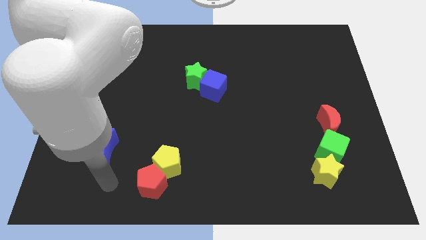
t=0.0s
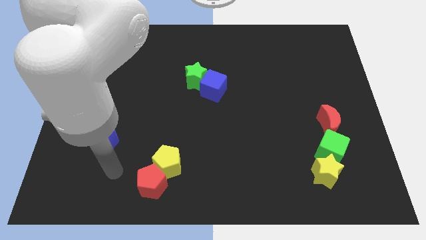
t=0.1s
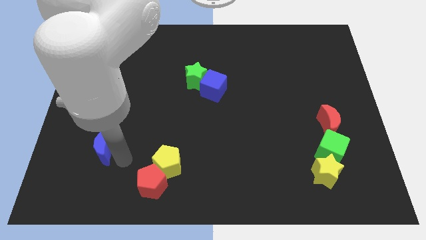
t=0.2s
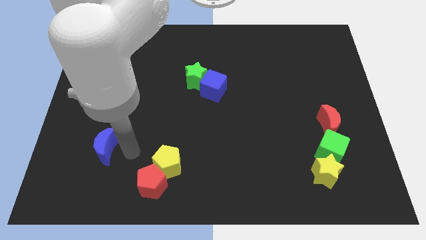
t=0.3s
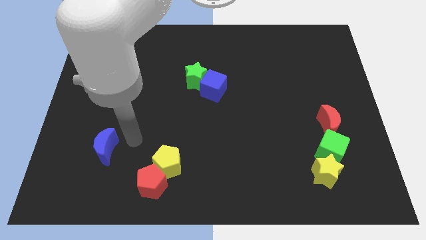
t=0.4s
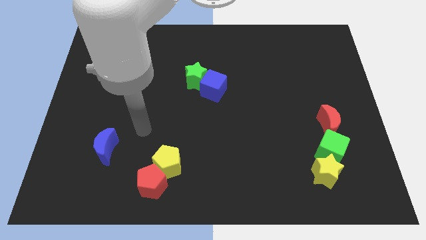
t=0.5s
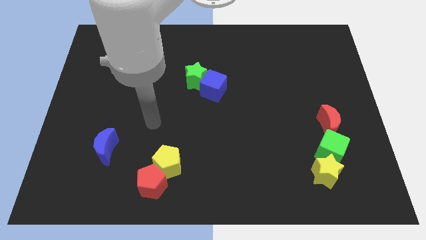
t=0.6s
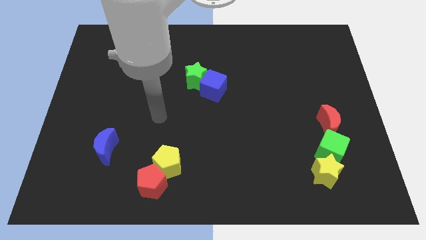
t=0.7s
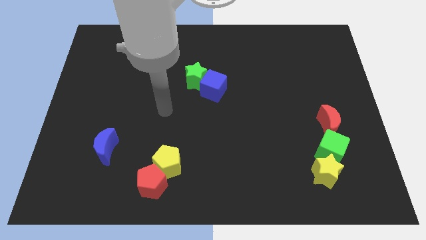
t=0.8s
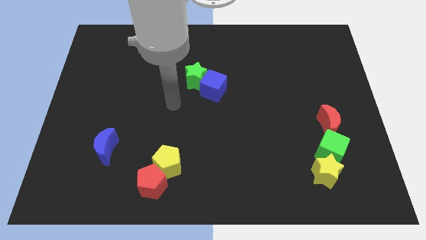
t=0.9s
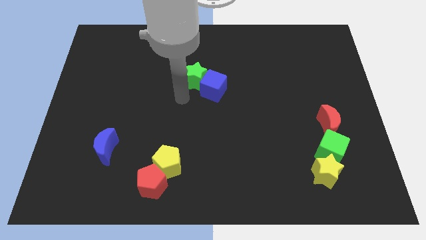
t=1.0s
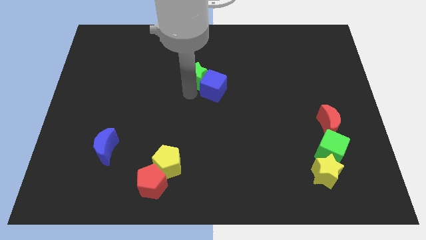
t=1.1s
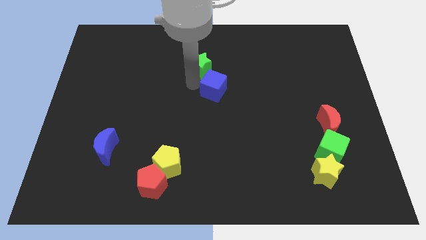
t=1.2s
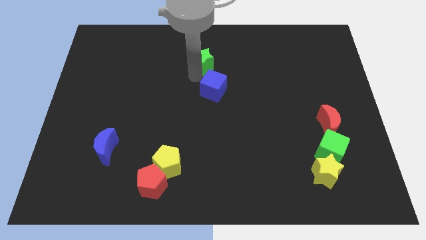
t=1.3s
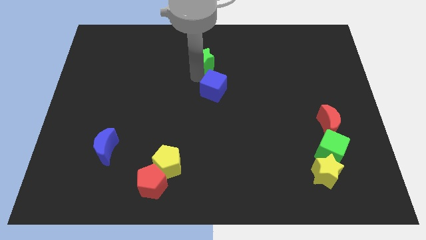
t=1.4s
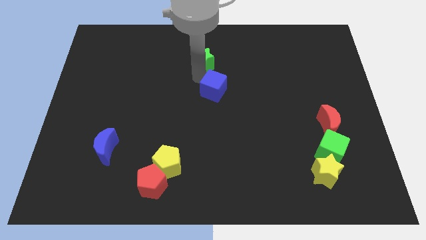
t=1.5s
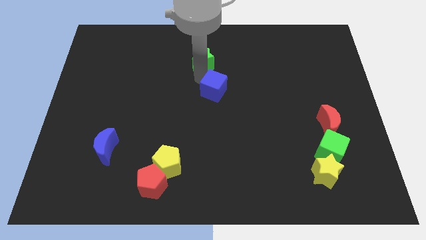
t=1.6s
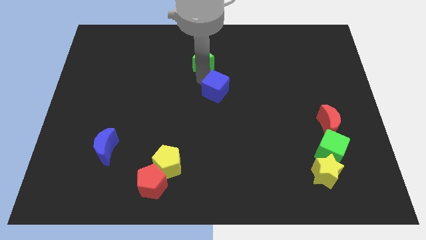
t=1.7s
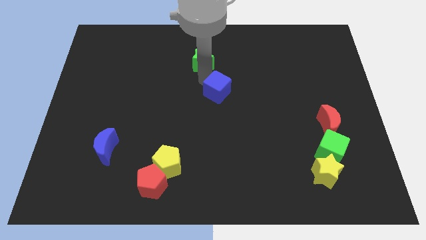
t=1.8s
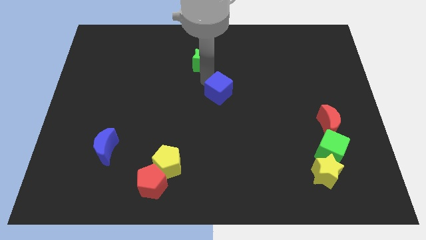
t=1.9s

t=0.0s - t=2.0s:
separate the blue cube from the green star

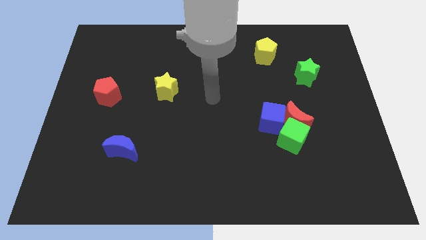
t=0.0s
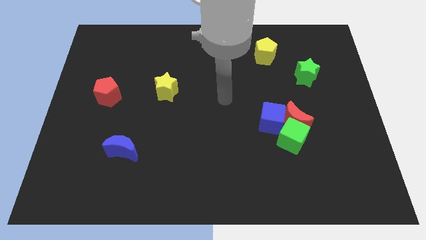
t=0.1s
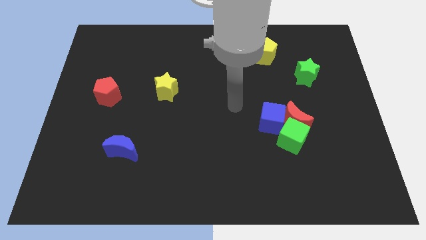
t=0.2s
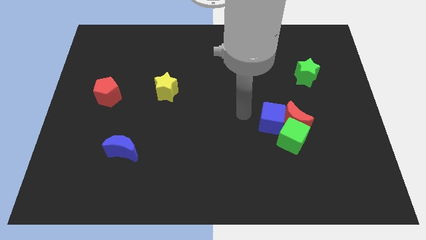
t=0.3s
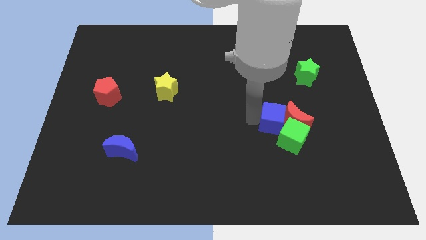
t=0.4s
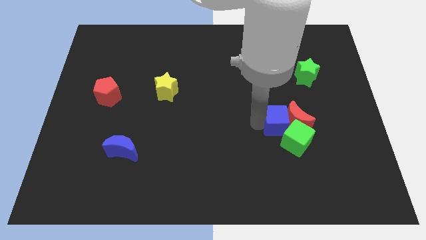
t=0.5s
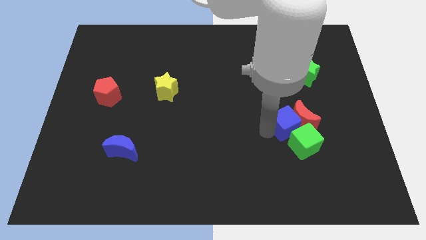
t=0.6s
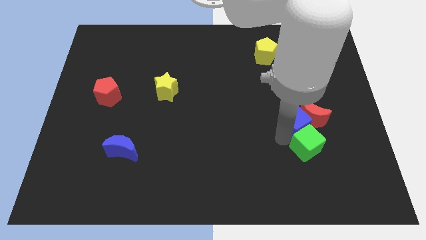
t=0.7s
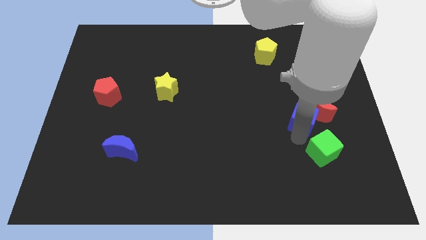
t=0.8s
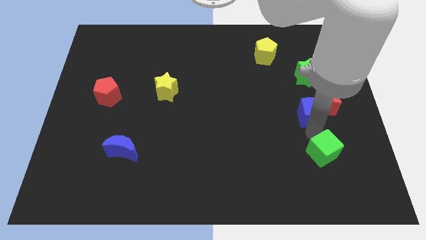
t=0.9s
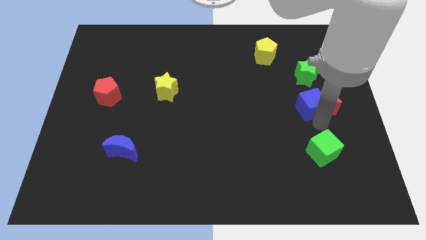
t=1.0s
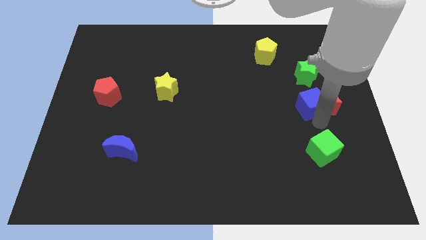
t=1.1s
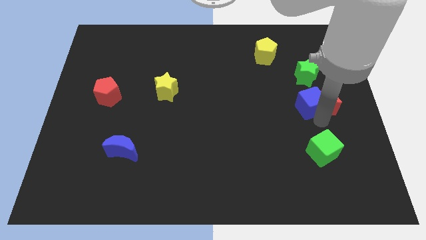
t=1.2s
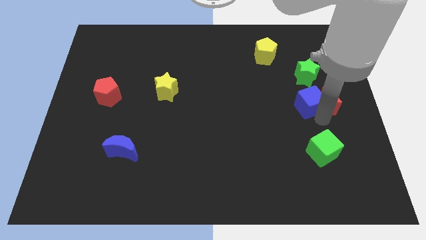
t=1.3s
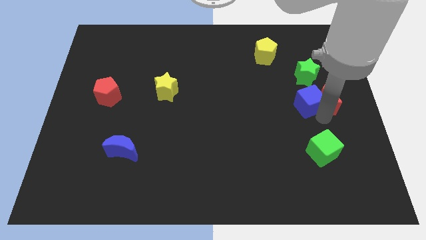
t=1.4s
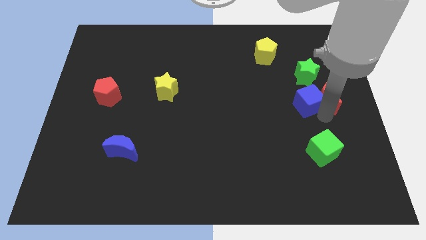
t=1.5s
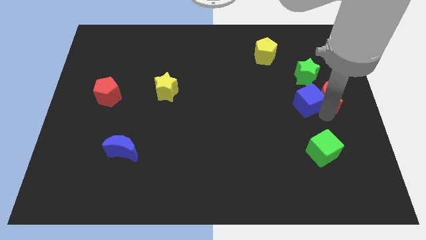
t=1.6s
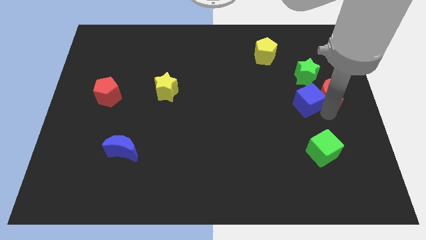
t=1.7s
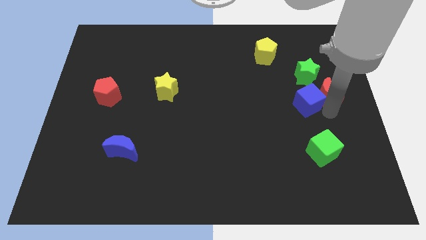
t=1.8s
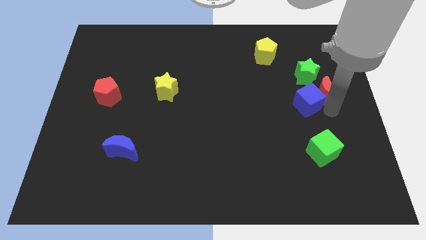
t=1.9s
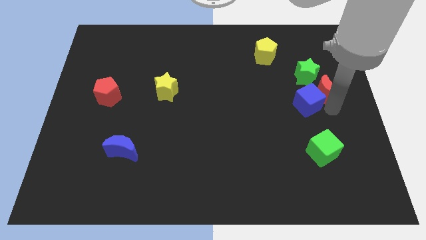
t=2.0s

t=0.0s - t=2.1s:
pull the red moon apart from the green cube and blue cube

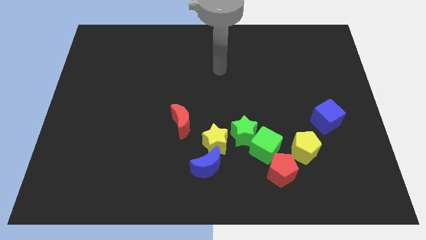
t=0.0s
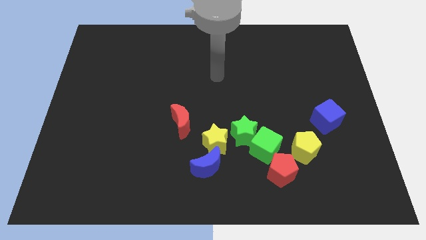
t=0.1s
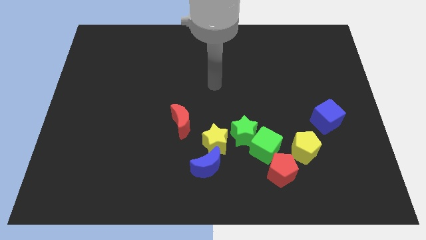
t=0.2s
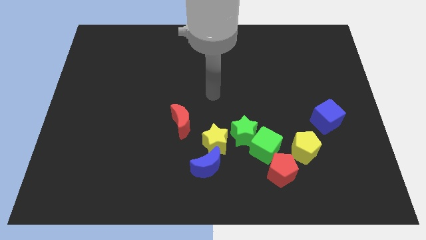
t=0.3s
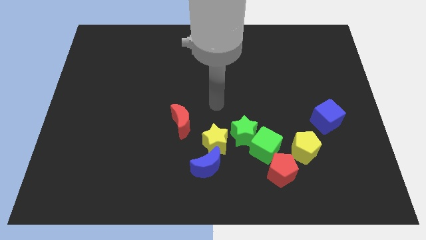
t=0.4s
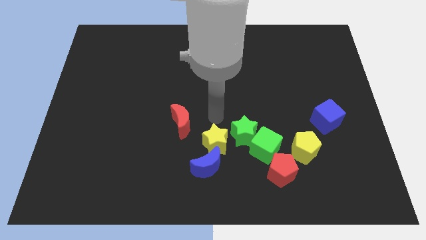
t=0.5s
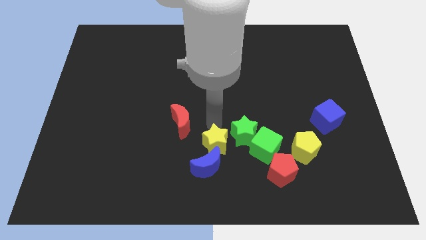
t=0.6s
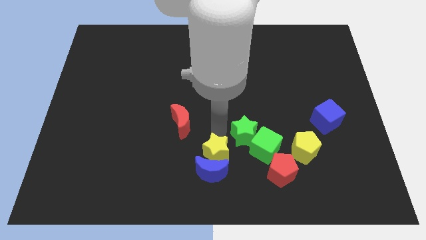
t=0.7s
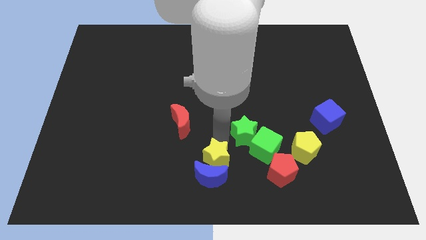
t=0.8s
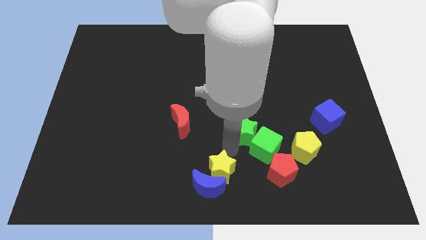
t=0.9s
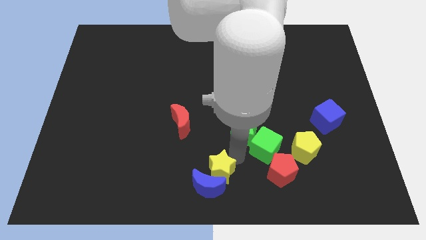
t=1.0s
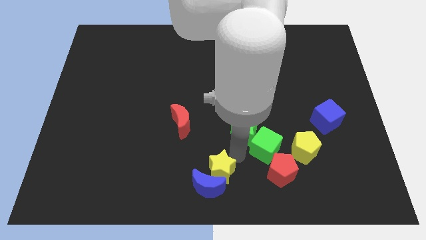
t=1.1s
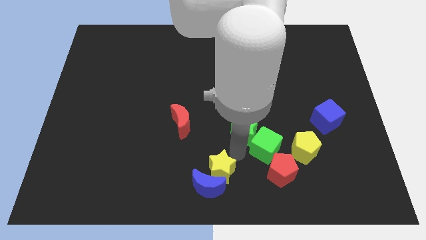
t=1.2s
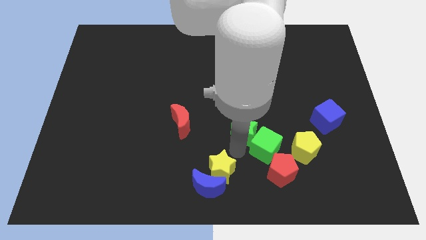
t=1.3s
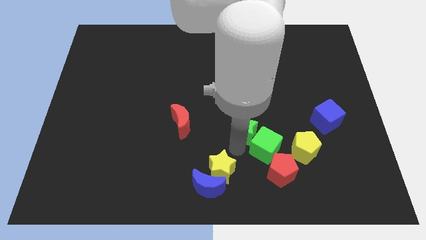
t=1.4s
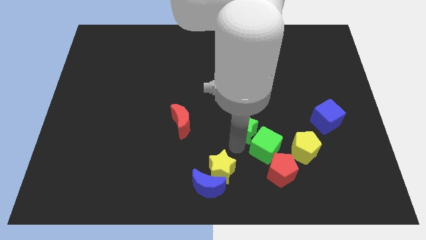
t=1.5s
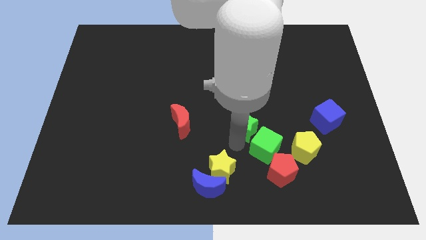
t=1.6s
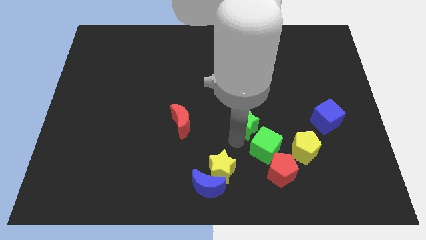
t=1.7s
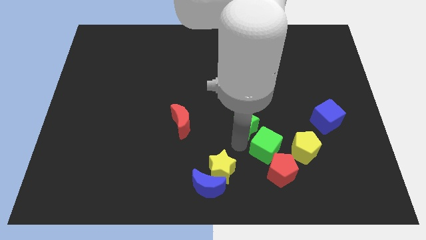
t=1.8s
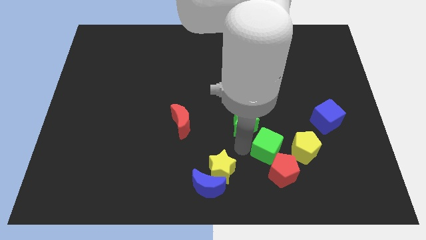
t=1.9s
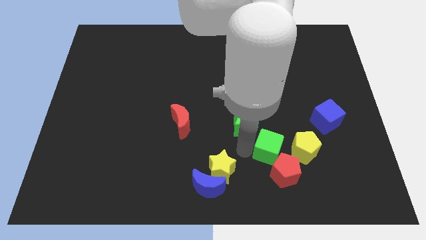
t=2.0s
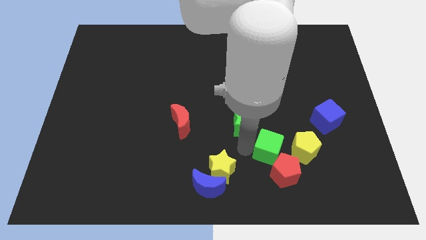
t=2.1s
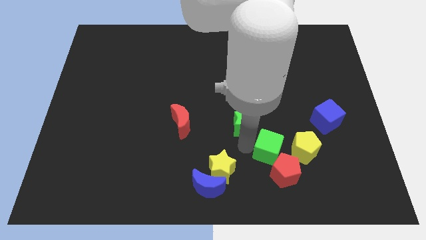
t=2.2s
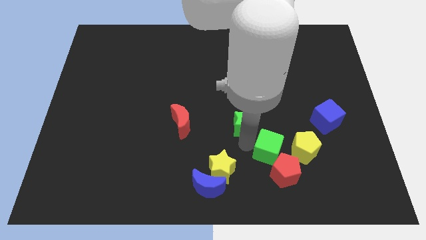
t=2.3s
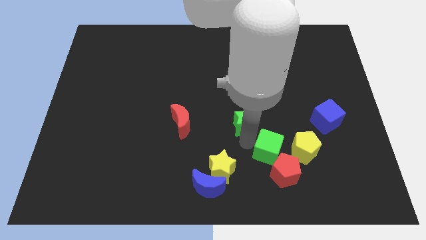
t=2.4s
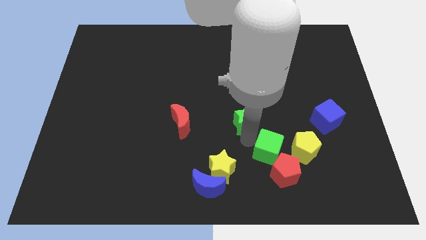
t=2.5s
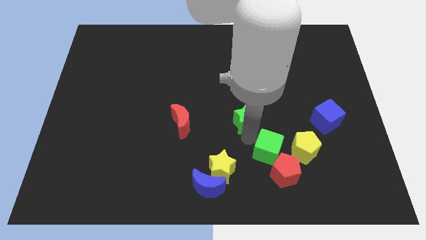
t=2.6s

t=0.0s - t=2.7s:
move the green star away from the green cube and yellow star

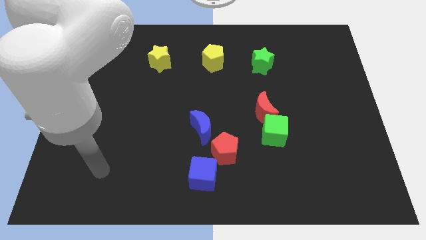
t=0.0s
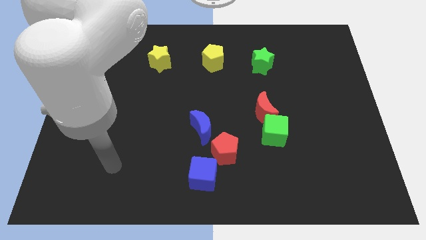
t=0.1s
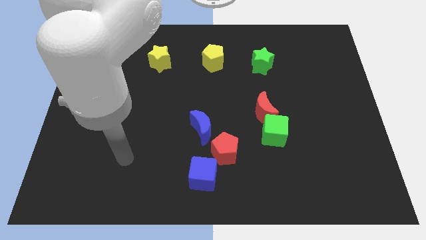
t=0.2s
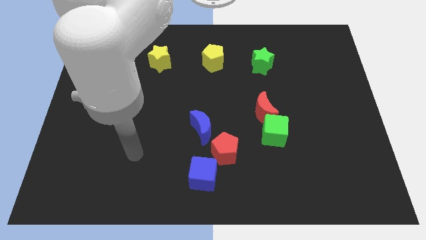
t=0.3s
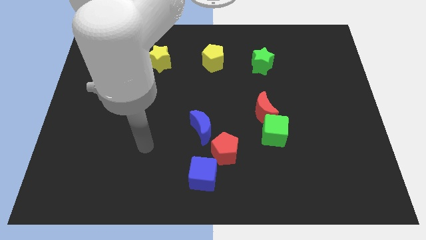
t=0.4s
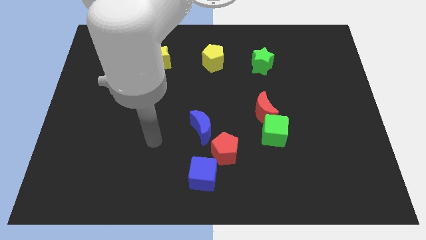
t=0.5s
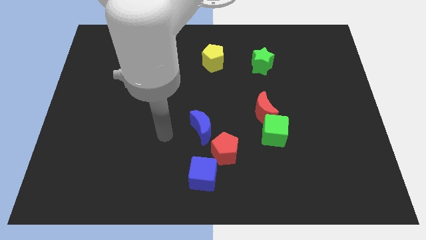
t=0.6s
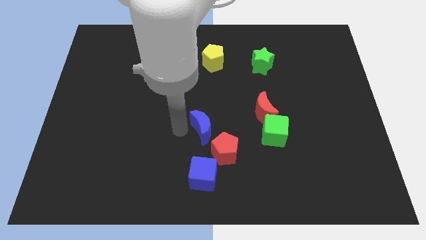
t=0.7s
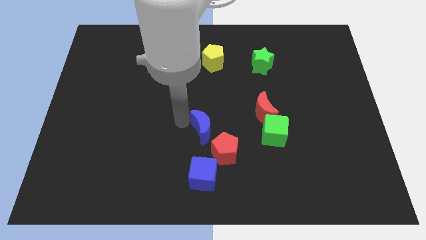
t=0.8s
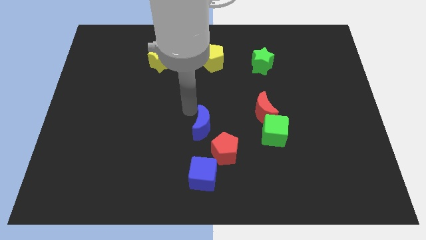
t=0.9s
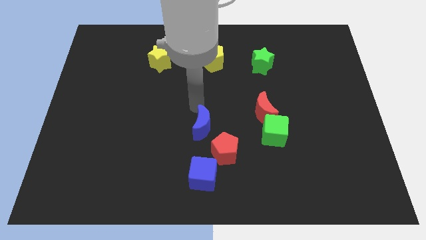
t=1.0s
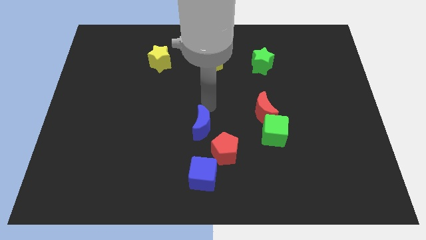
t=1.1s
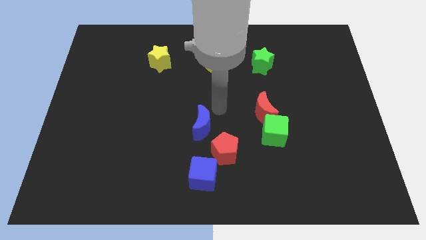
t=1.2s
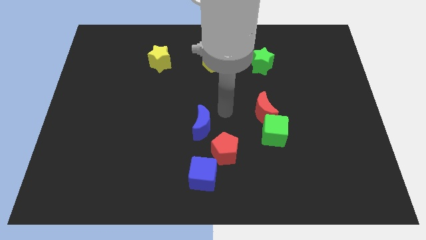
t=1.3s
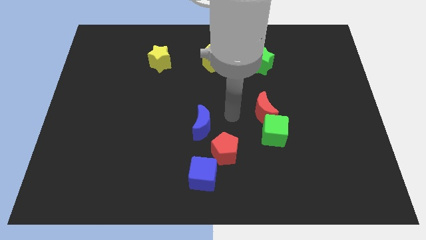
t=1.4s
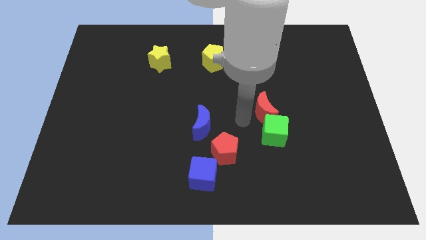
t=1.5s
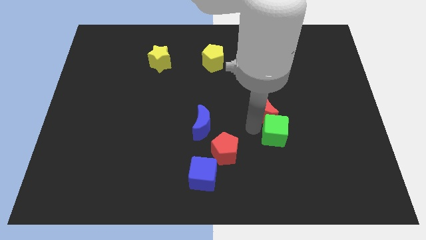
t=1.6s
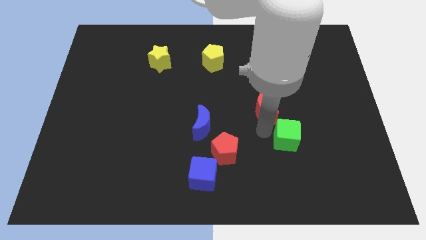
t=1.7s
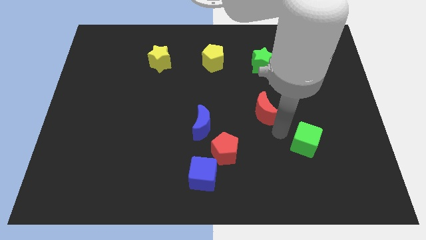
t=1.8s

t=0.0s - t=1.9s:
pull the red moon apart from the green cube

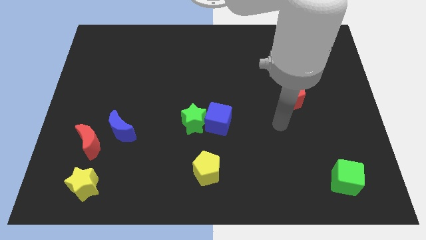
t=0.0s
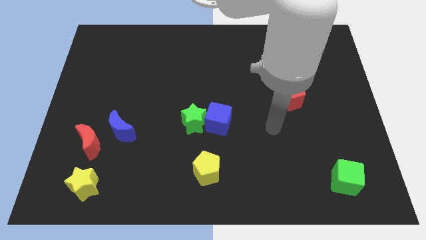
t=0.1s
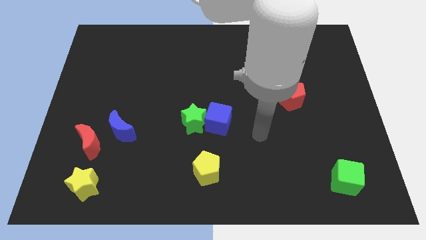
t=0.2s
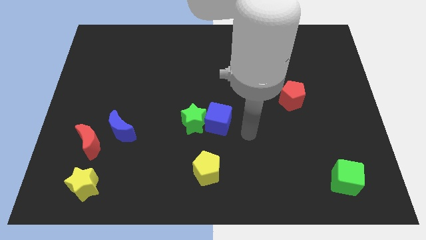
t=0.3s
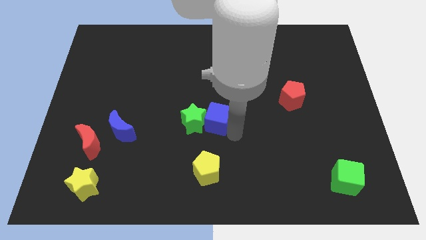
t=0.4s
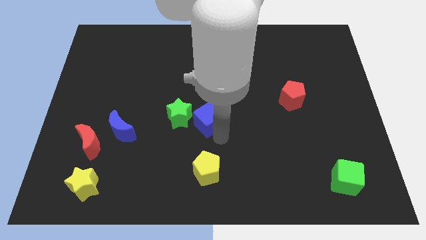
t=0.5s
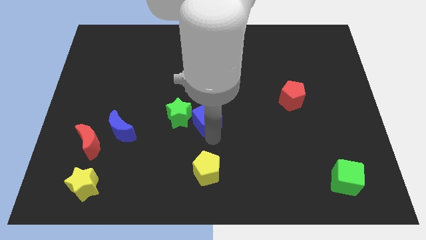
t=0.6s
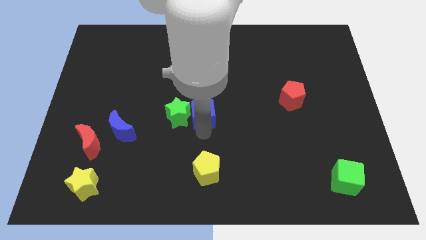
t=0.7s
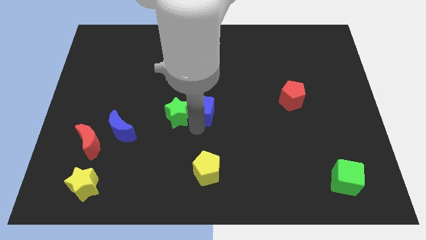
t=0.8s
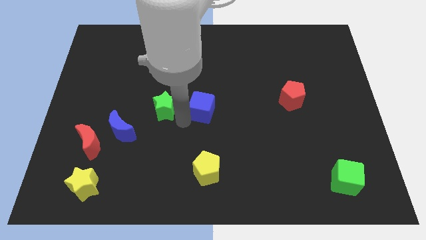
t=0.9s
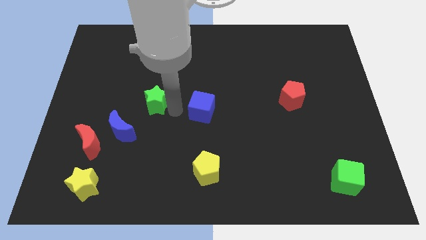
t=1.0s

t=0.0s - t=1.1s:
move the blue cube away from the green star
